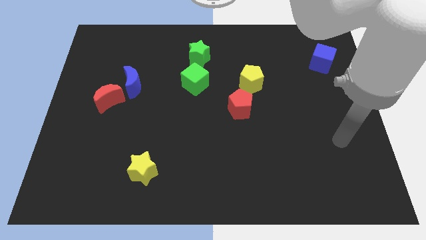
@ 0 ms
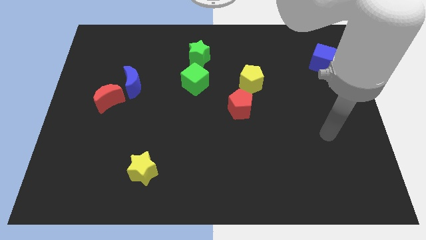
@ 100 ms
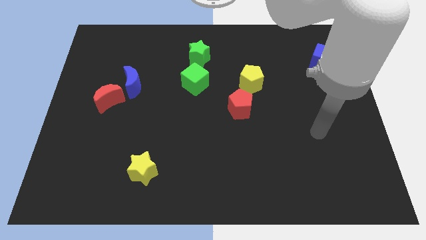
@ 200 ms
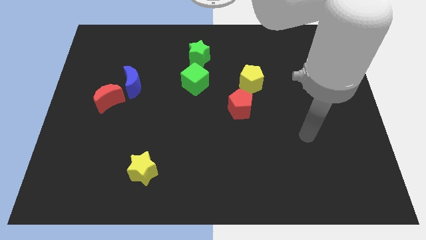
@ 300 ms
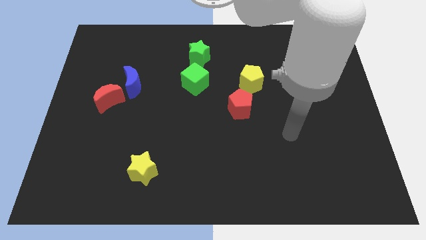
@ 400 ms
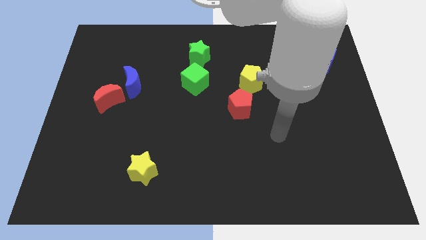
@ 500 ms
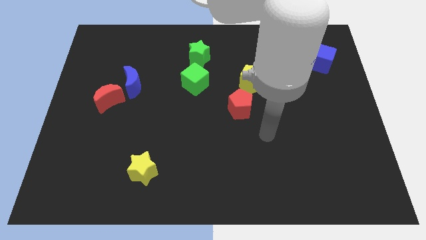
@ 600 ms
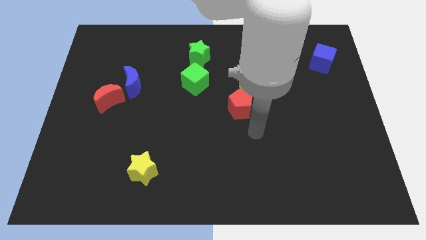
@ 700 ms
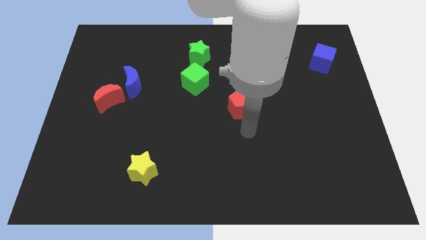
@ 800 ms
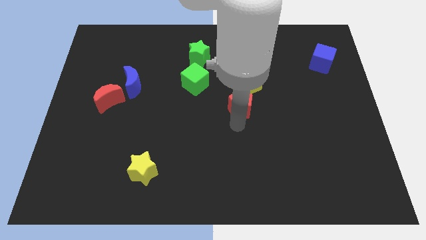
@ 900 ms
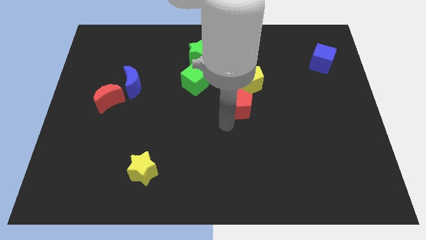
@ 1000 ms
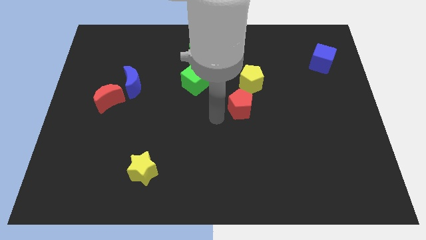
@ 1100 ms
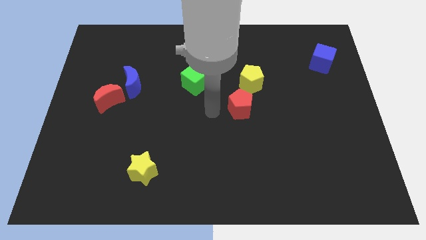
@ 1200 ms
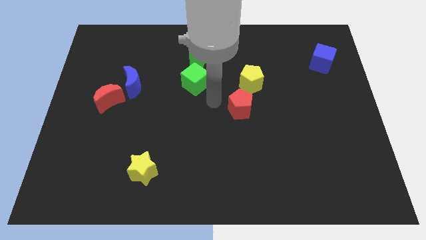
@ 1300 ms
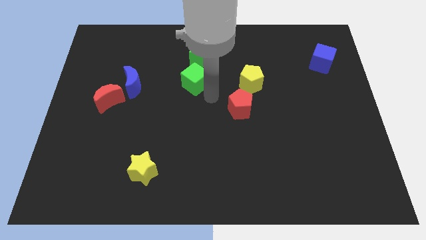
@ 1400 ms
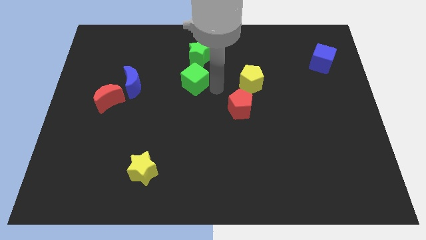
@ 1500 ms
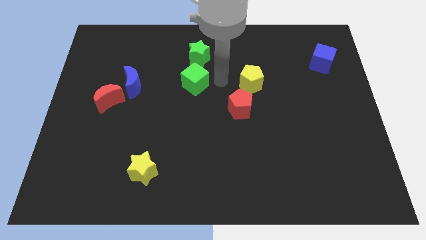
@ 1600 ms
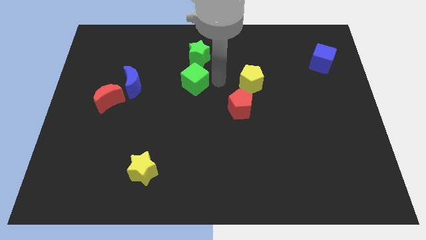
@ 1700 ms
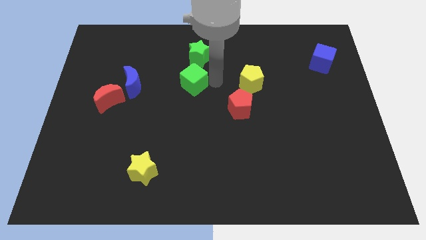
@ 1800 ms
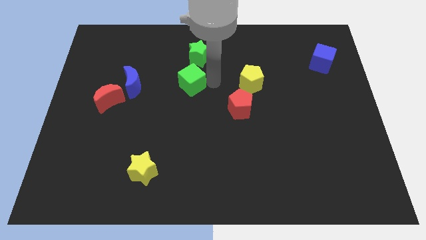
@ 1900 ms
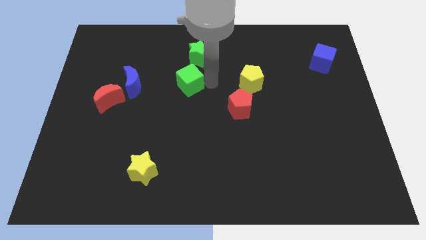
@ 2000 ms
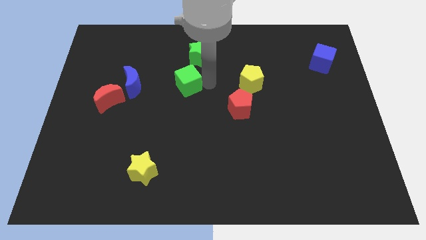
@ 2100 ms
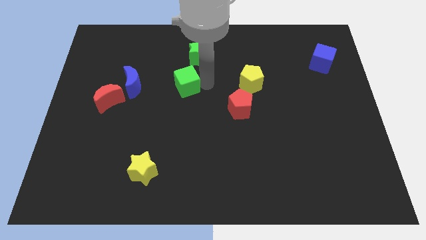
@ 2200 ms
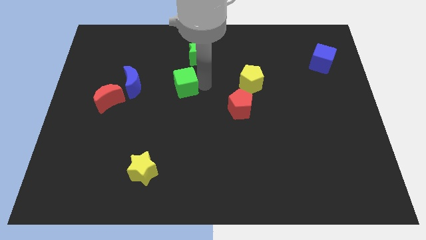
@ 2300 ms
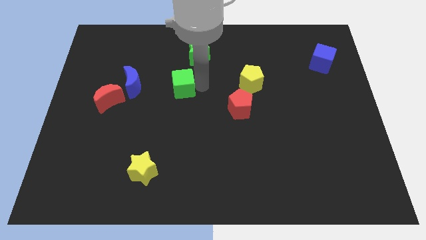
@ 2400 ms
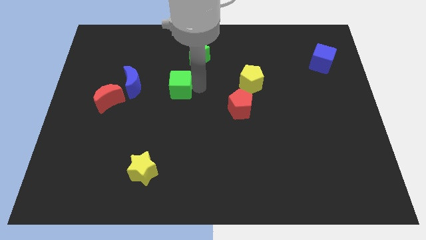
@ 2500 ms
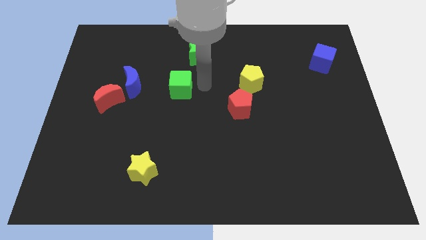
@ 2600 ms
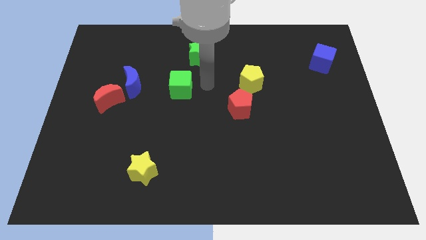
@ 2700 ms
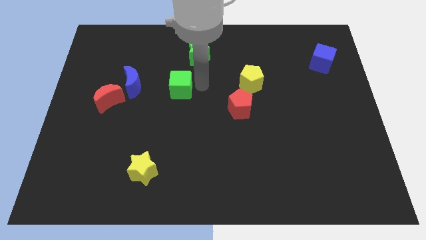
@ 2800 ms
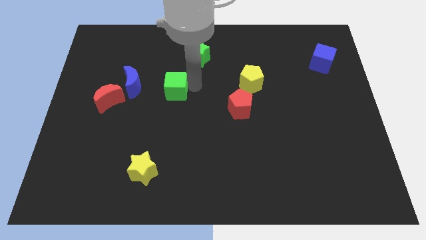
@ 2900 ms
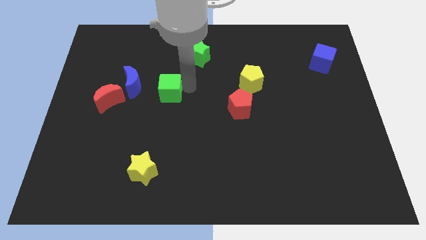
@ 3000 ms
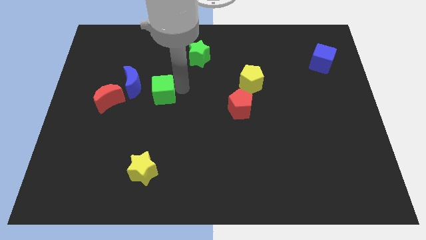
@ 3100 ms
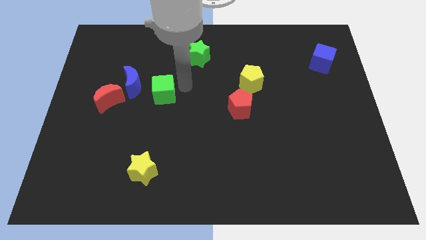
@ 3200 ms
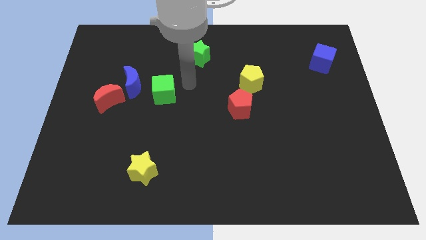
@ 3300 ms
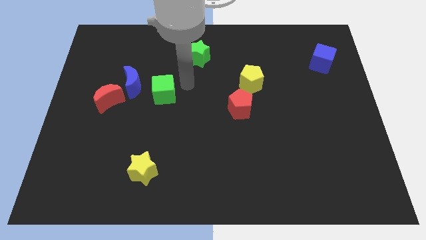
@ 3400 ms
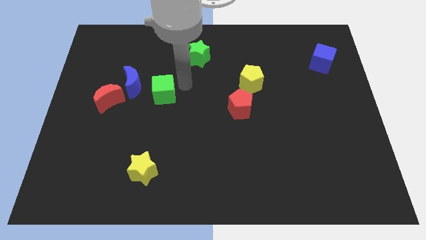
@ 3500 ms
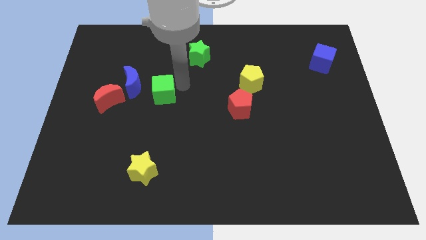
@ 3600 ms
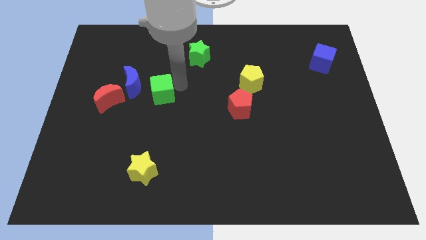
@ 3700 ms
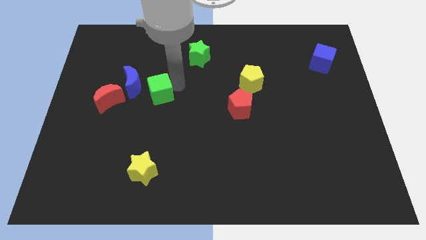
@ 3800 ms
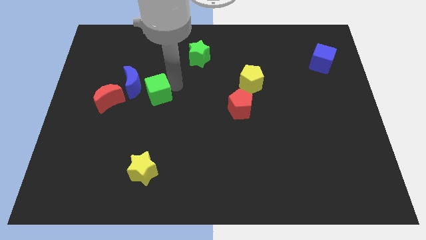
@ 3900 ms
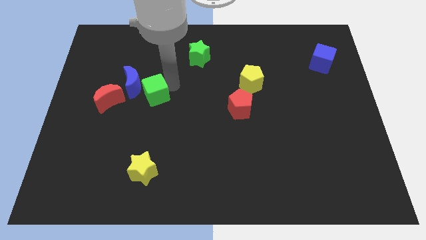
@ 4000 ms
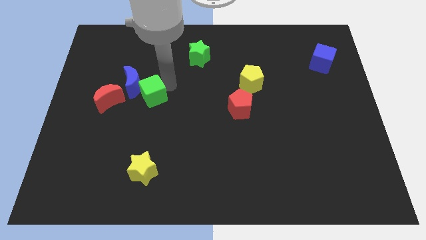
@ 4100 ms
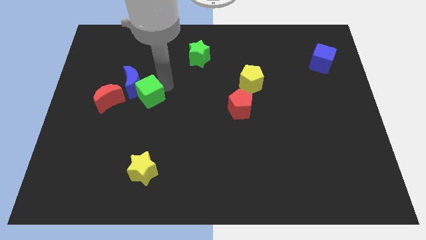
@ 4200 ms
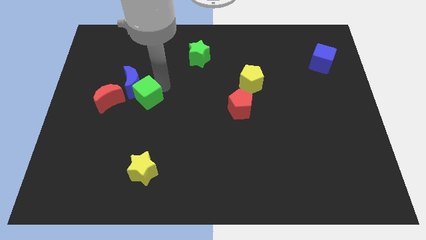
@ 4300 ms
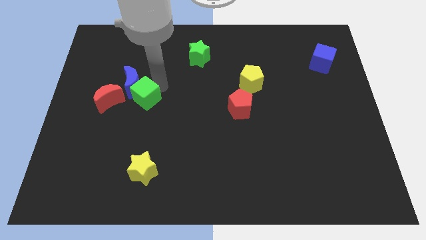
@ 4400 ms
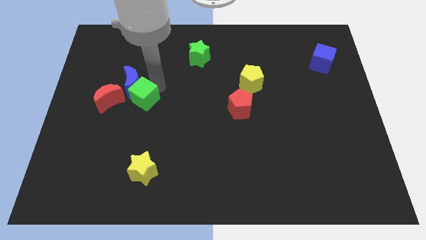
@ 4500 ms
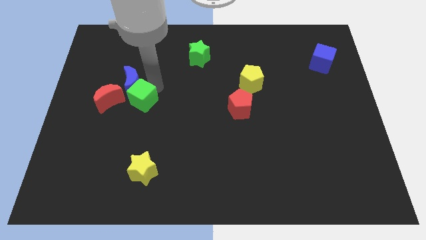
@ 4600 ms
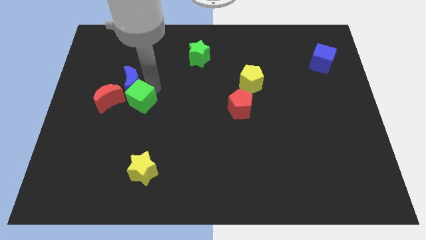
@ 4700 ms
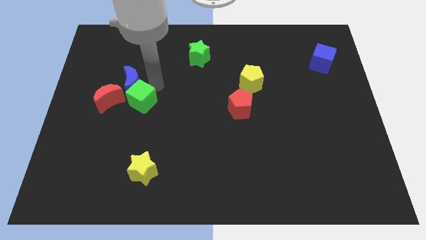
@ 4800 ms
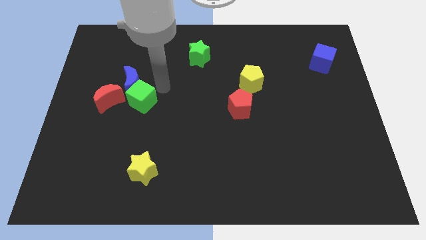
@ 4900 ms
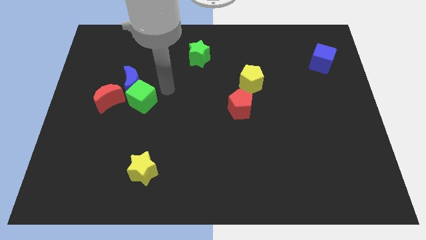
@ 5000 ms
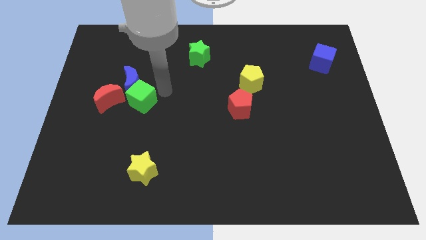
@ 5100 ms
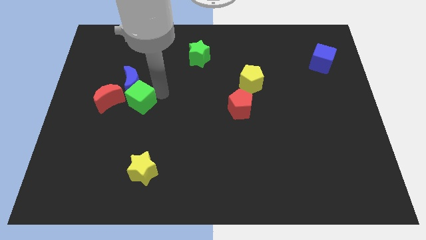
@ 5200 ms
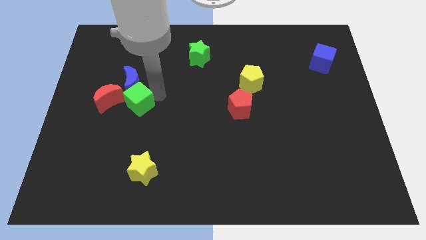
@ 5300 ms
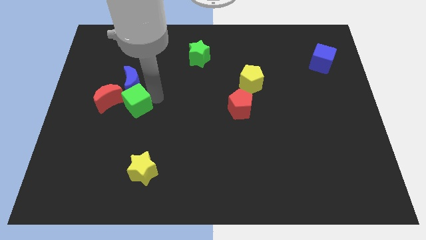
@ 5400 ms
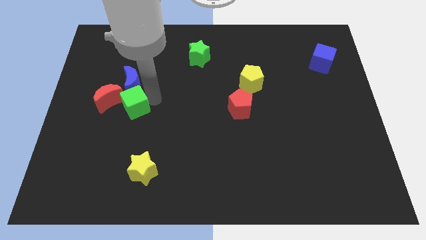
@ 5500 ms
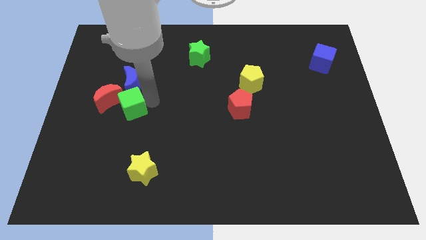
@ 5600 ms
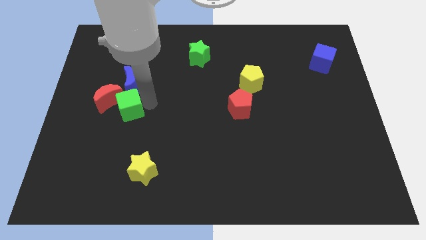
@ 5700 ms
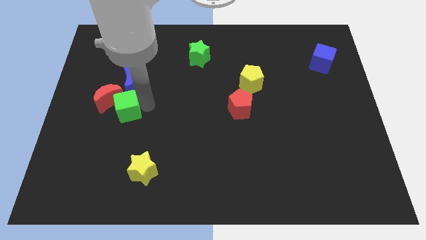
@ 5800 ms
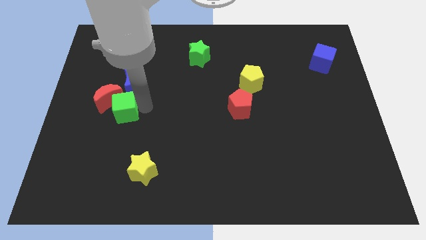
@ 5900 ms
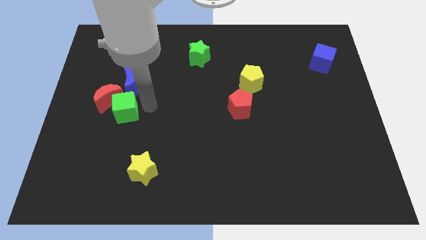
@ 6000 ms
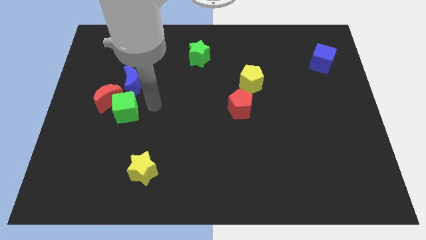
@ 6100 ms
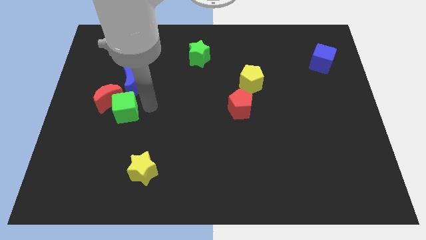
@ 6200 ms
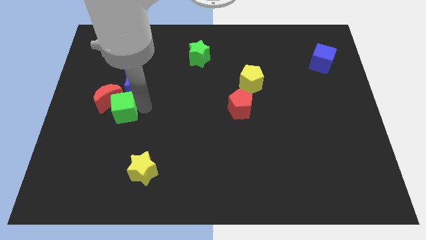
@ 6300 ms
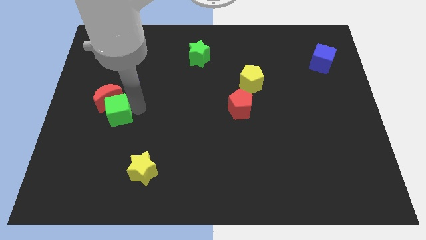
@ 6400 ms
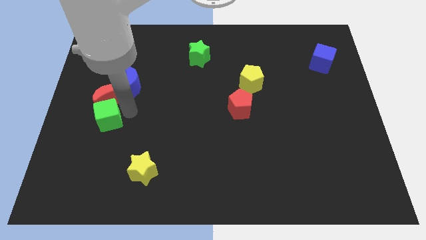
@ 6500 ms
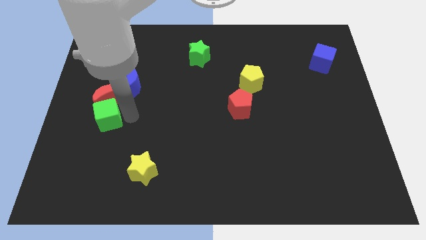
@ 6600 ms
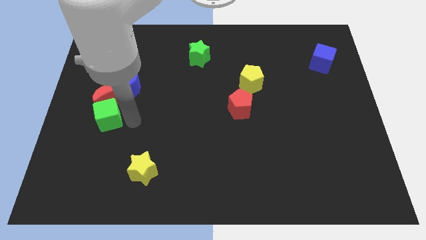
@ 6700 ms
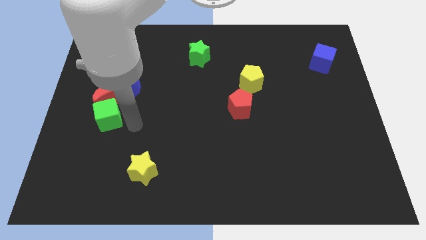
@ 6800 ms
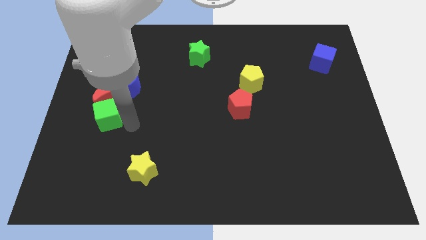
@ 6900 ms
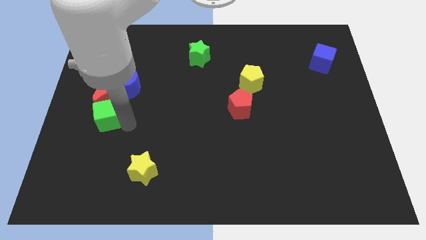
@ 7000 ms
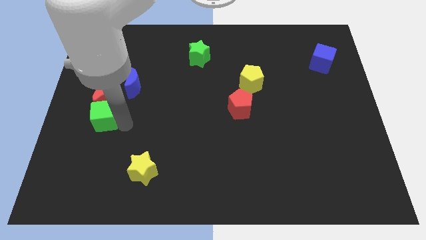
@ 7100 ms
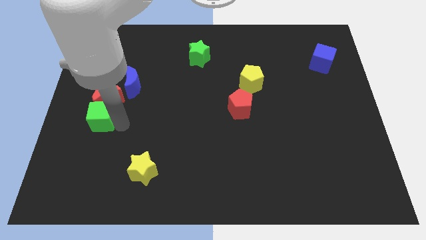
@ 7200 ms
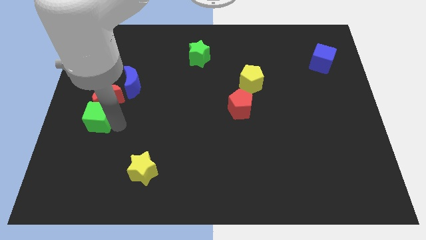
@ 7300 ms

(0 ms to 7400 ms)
push the green cube to the left side
